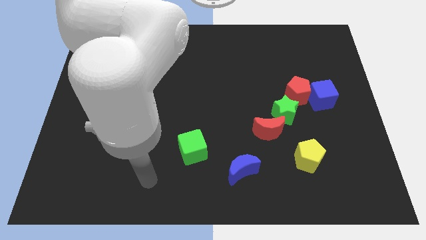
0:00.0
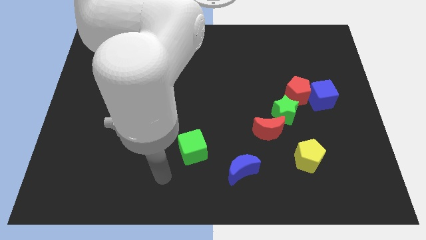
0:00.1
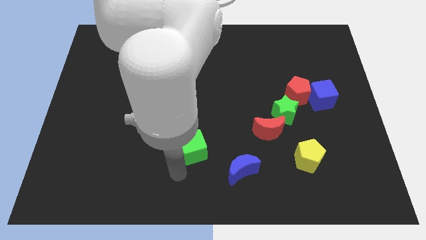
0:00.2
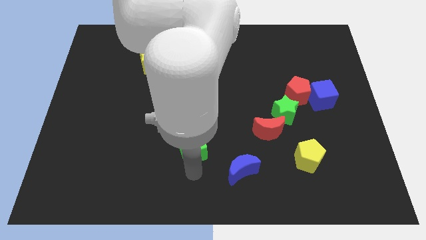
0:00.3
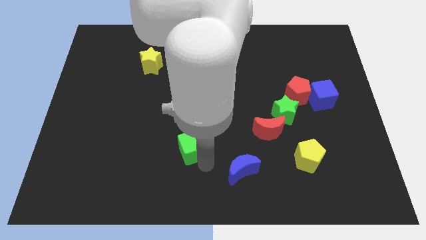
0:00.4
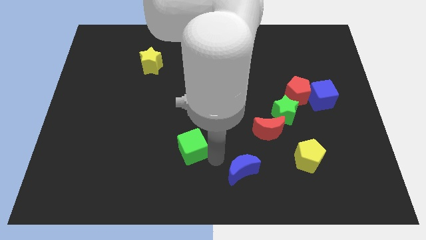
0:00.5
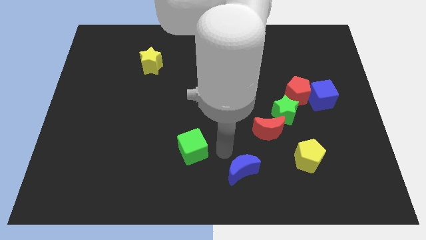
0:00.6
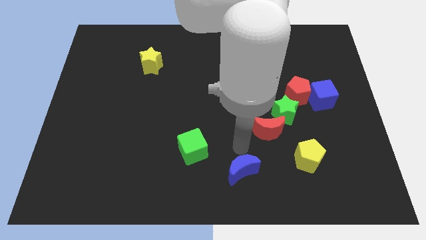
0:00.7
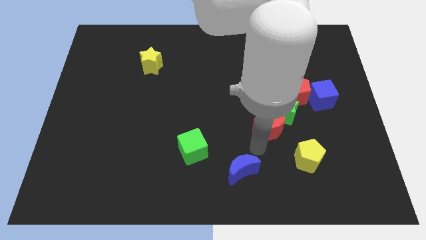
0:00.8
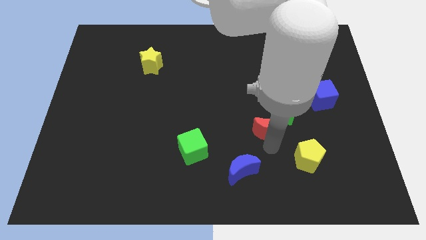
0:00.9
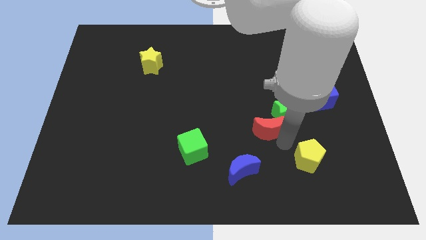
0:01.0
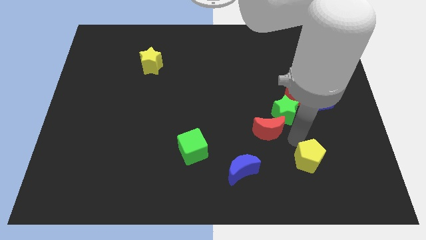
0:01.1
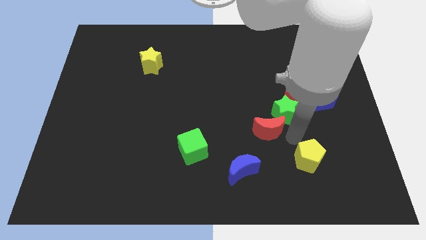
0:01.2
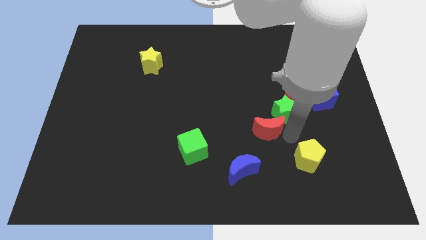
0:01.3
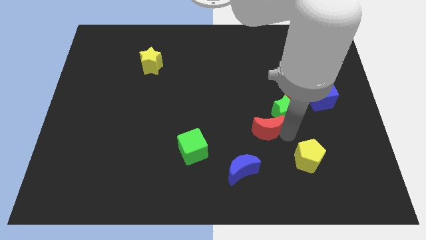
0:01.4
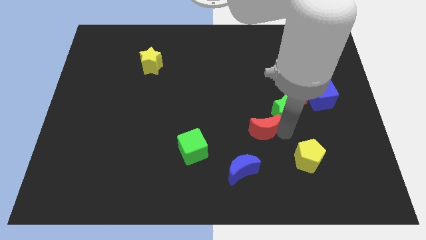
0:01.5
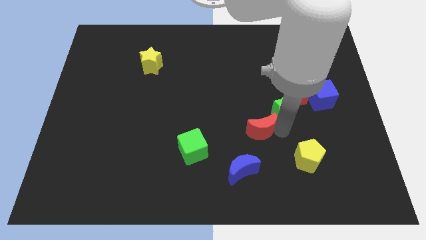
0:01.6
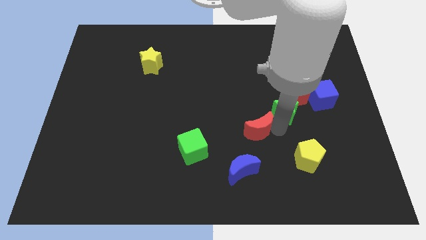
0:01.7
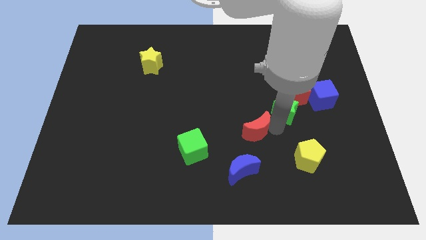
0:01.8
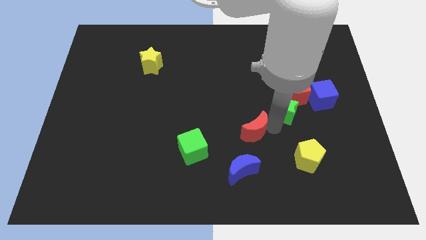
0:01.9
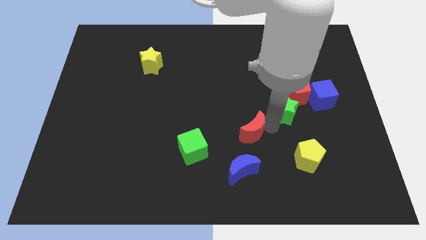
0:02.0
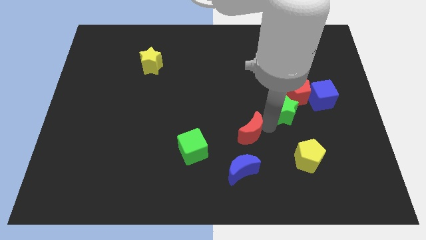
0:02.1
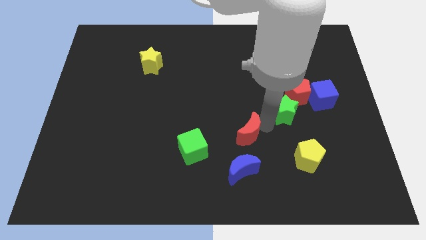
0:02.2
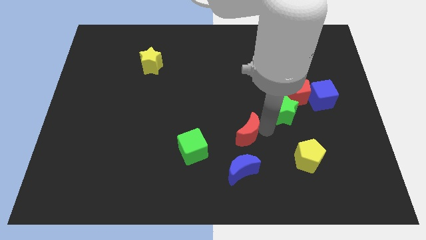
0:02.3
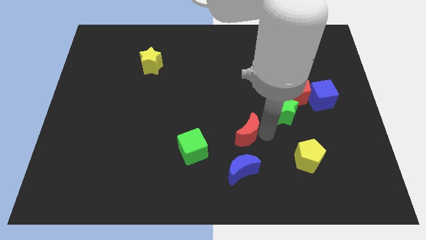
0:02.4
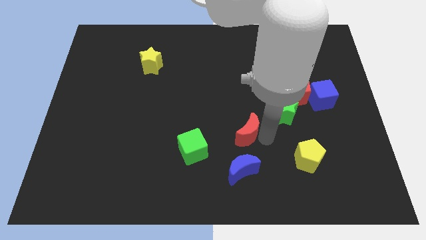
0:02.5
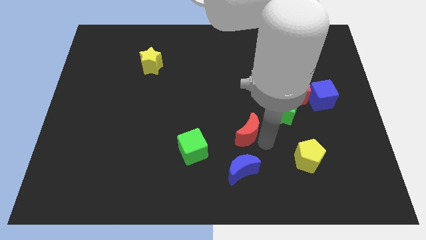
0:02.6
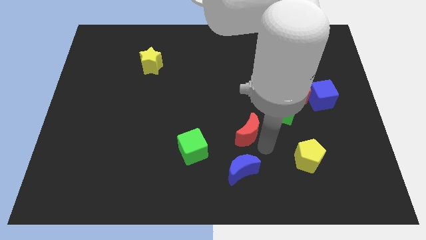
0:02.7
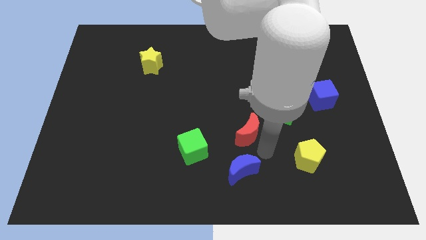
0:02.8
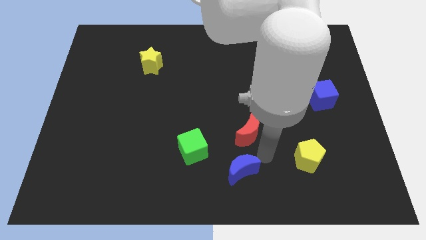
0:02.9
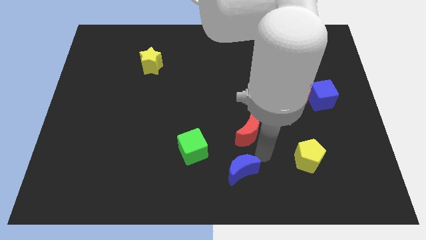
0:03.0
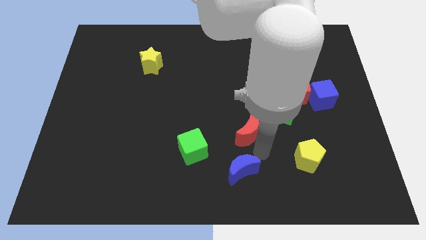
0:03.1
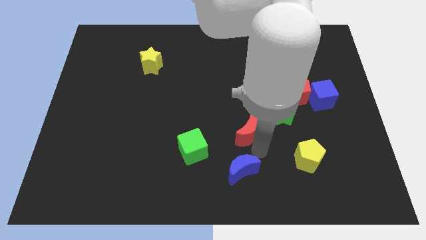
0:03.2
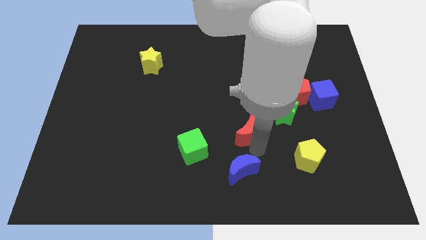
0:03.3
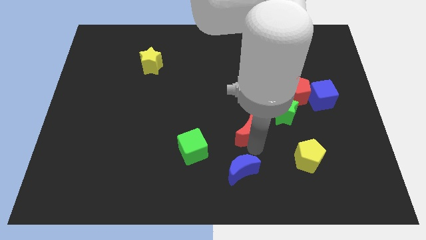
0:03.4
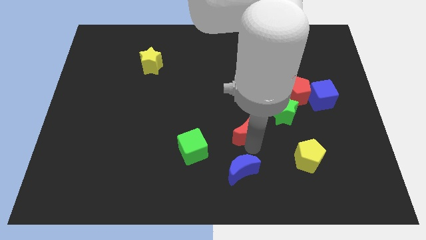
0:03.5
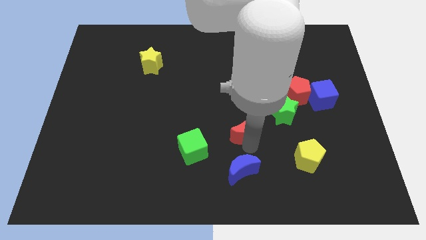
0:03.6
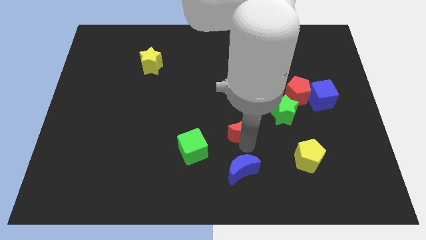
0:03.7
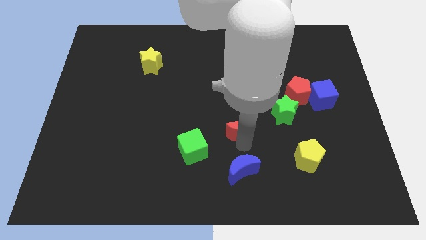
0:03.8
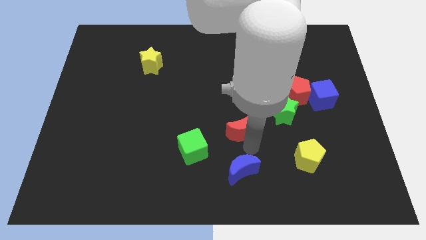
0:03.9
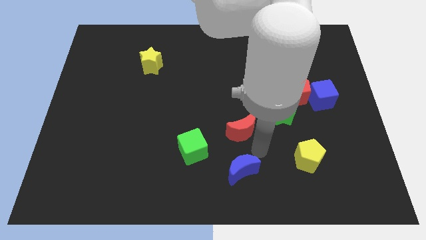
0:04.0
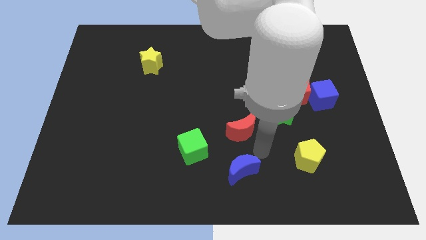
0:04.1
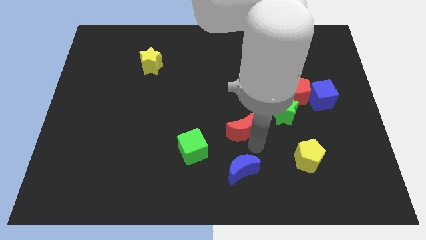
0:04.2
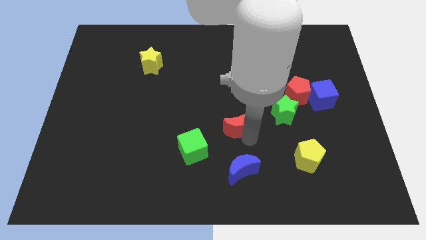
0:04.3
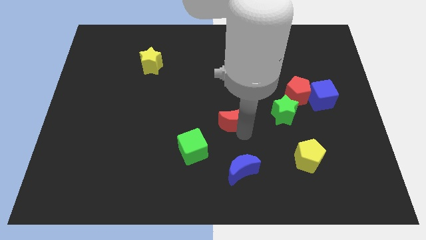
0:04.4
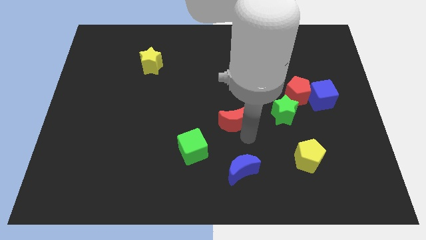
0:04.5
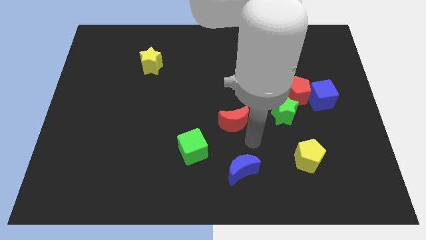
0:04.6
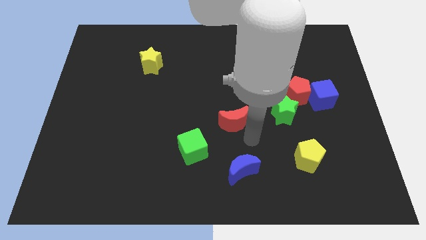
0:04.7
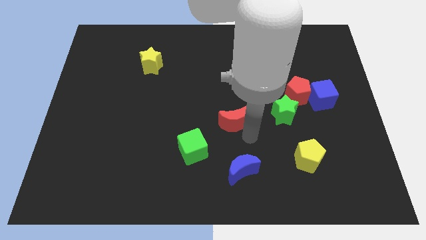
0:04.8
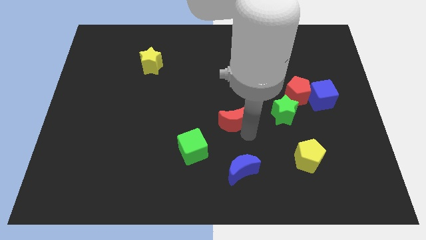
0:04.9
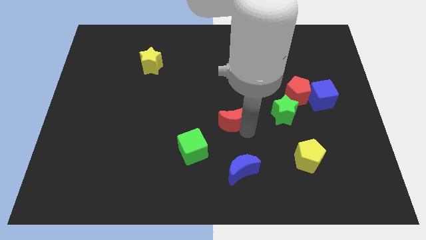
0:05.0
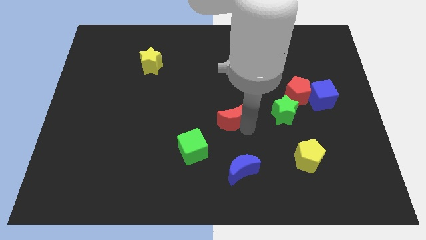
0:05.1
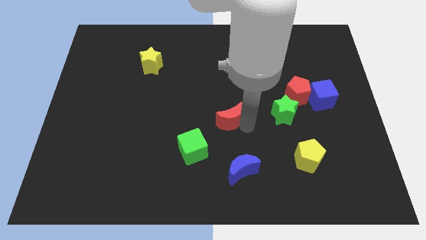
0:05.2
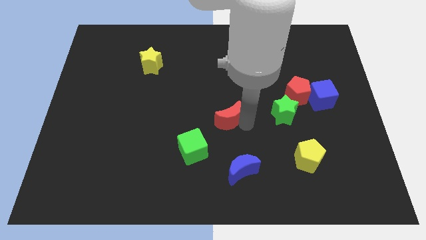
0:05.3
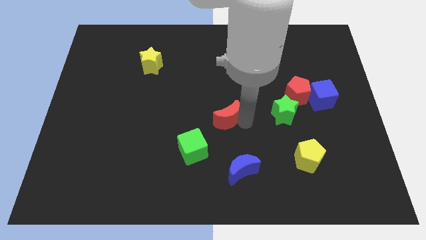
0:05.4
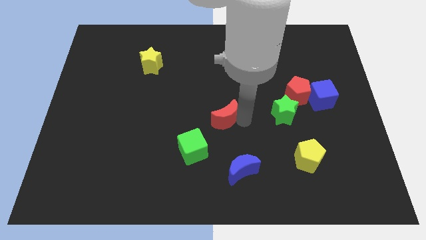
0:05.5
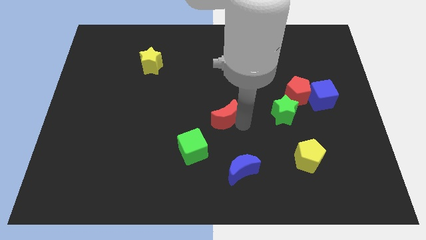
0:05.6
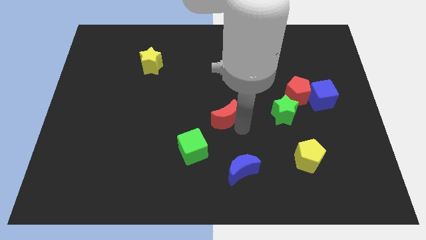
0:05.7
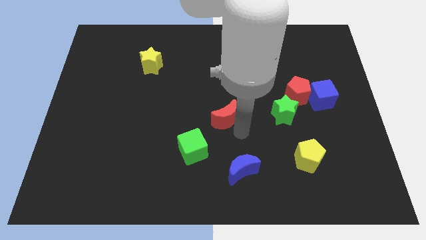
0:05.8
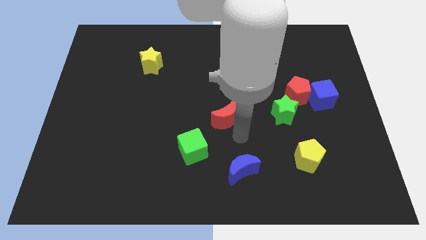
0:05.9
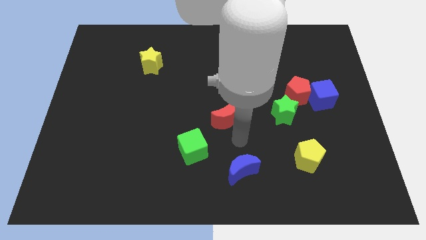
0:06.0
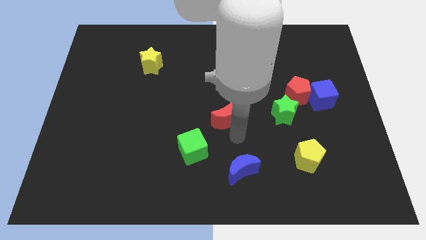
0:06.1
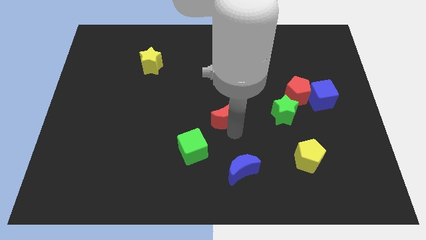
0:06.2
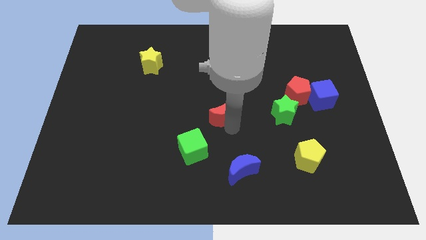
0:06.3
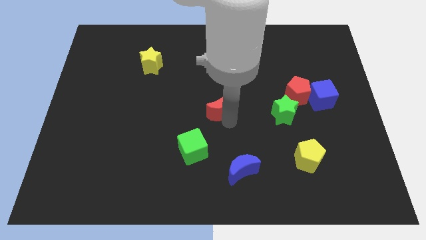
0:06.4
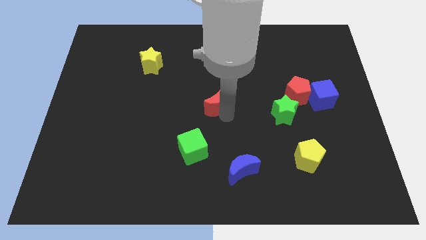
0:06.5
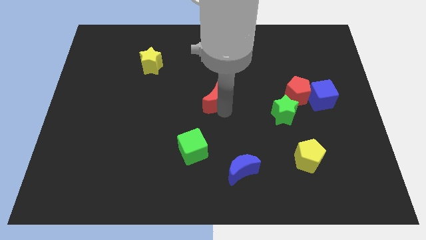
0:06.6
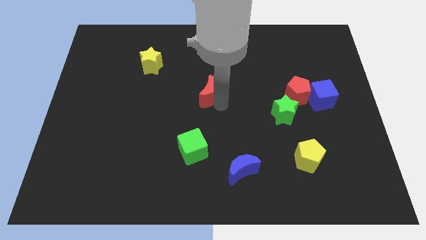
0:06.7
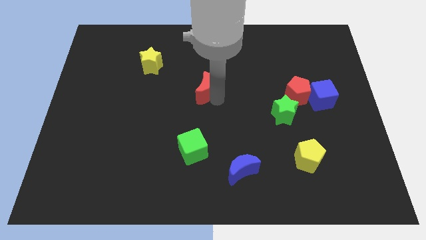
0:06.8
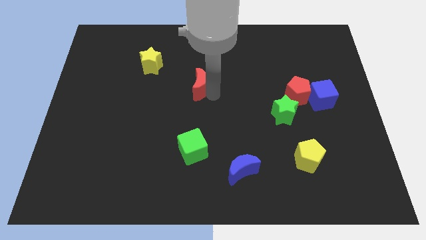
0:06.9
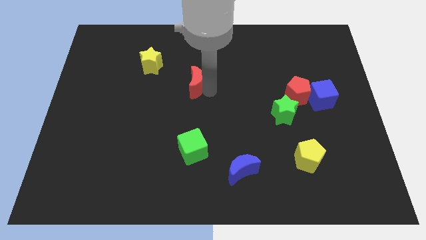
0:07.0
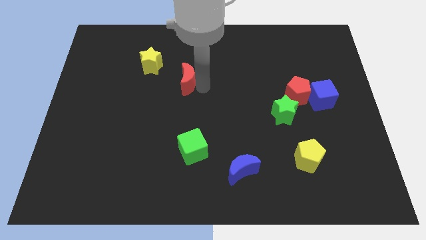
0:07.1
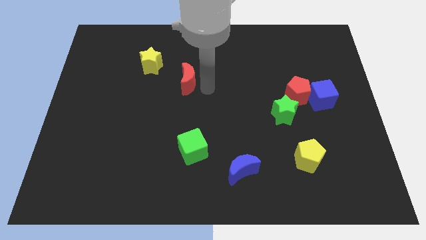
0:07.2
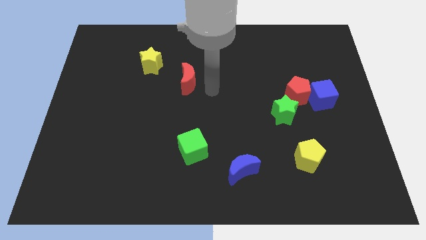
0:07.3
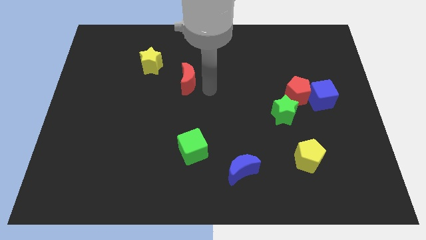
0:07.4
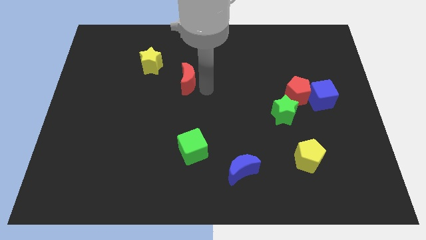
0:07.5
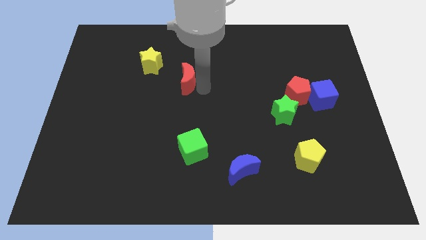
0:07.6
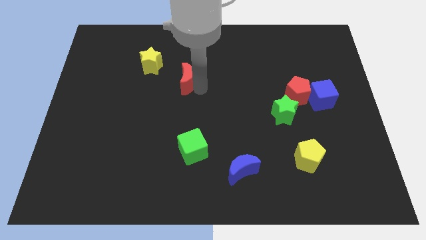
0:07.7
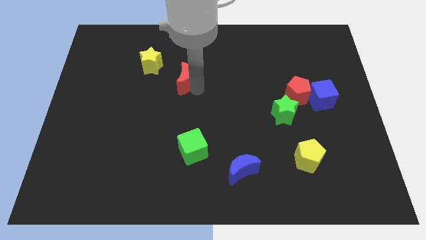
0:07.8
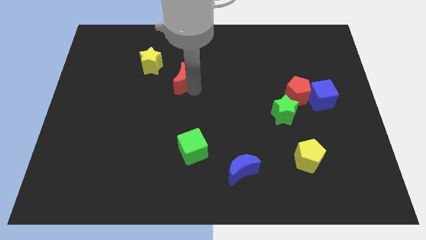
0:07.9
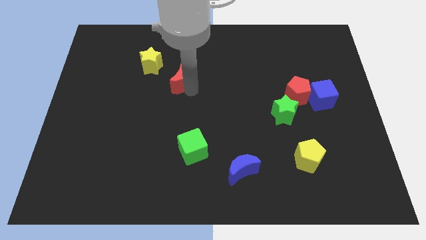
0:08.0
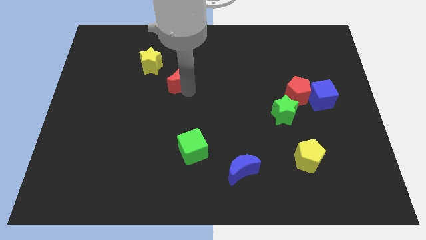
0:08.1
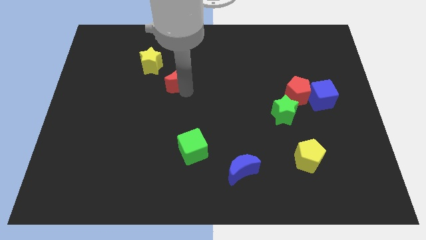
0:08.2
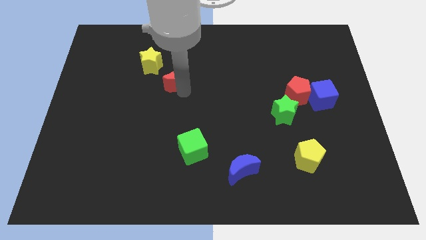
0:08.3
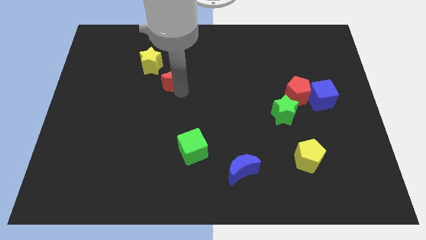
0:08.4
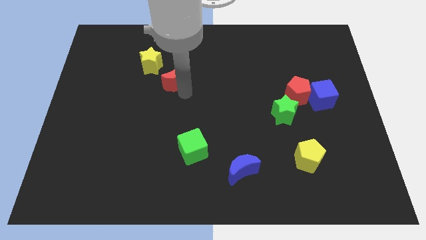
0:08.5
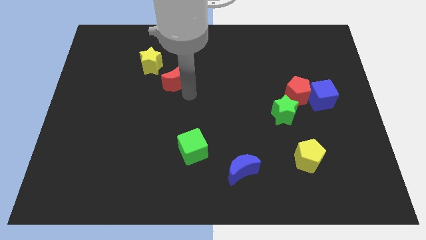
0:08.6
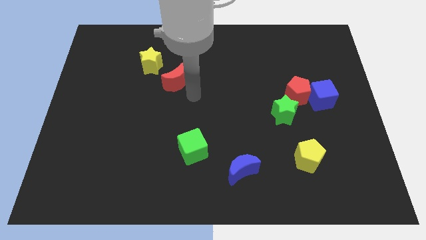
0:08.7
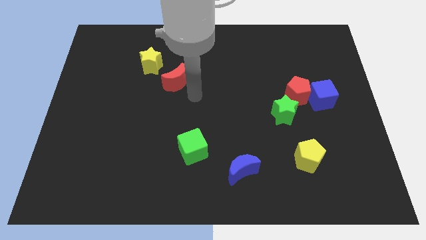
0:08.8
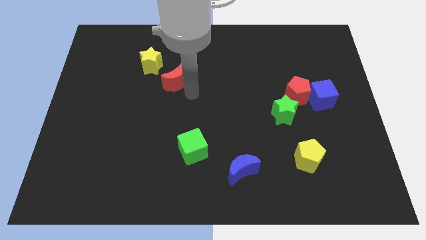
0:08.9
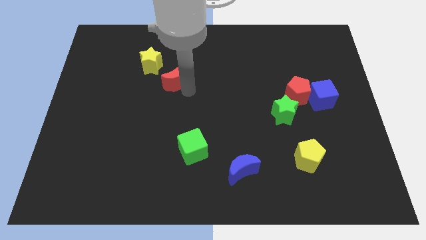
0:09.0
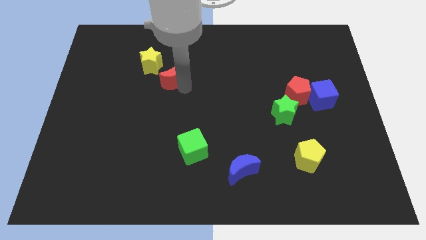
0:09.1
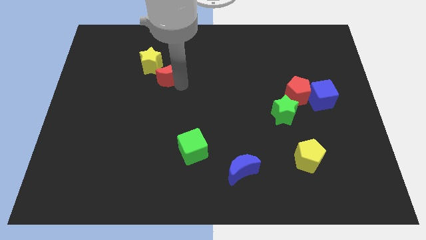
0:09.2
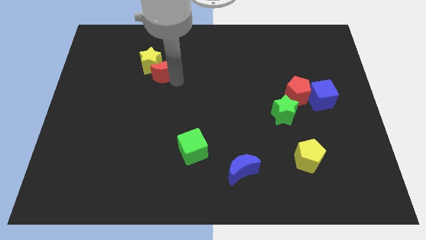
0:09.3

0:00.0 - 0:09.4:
push the red moon to the yellow star
